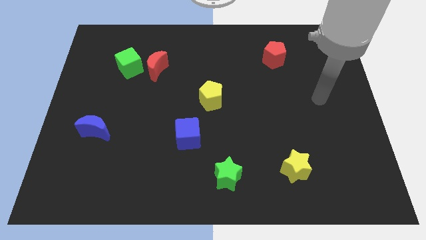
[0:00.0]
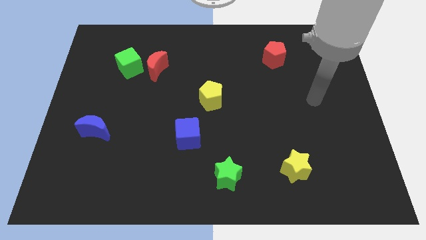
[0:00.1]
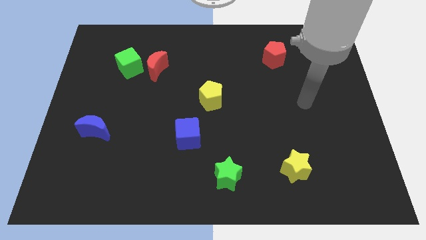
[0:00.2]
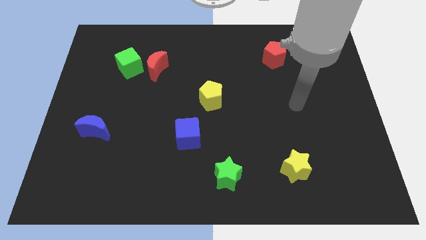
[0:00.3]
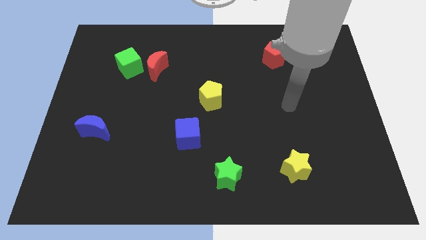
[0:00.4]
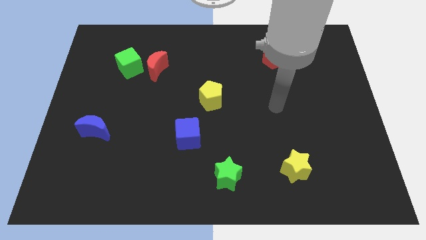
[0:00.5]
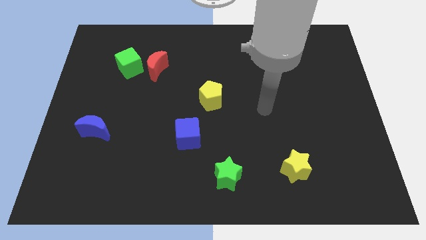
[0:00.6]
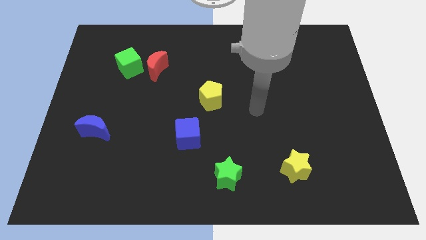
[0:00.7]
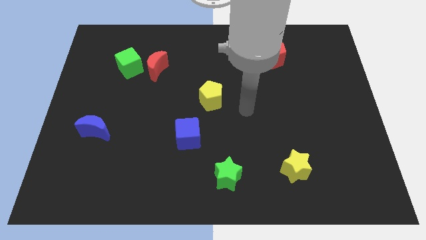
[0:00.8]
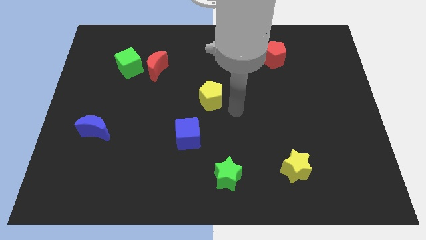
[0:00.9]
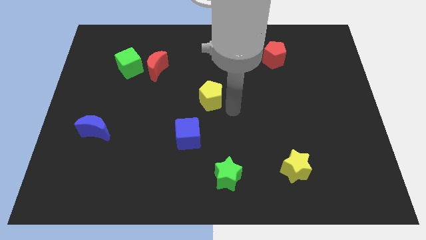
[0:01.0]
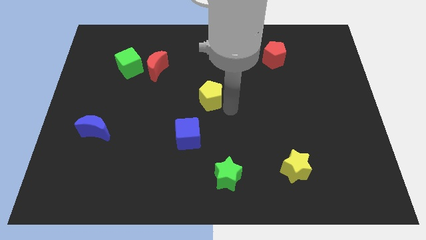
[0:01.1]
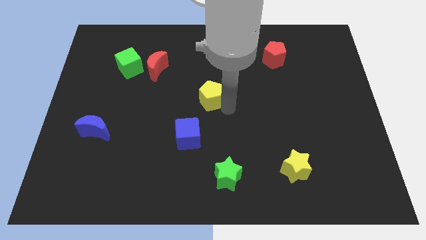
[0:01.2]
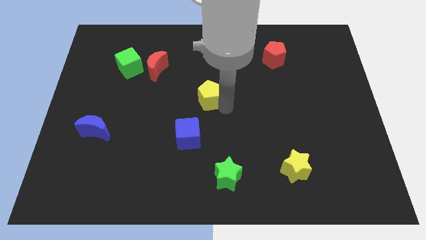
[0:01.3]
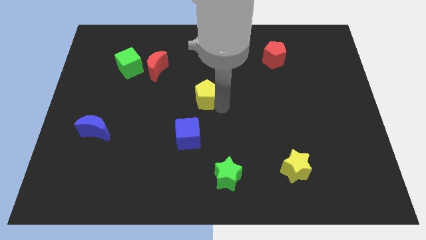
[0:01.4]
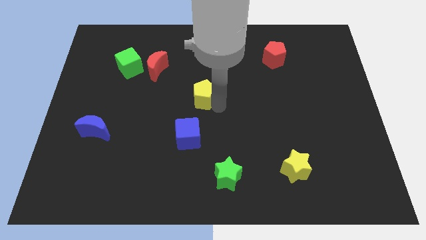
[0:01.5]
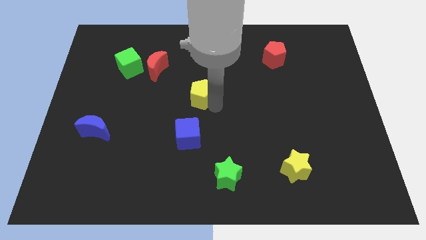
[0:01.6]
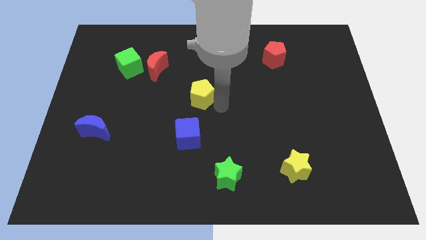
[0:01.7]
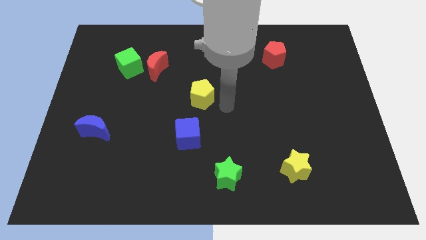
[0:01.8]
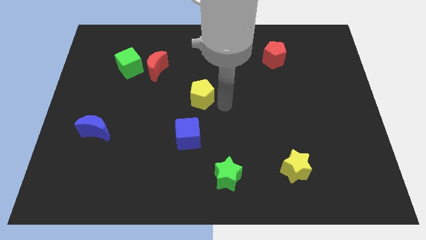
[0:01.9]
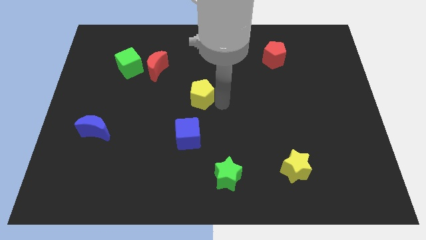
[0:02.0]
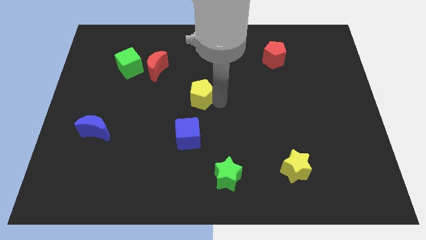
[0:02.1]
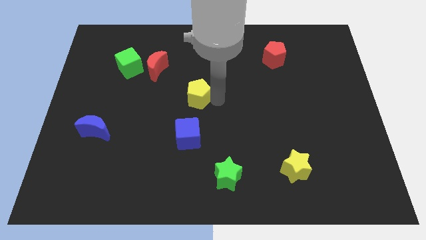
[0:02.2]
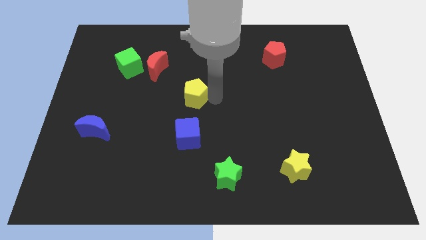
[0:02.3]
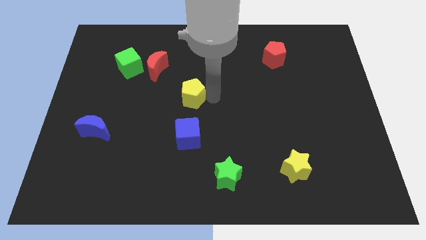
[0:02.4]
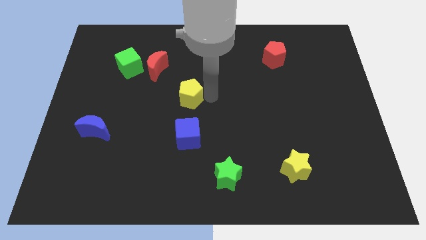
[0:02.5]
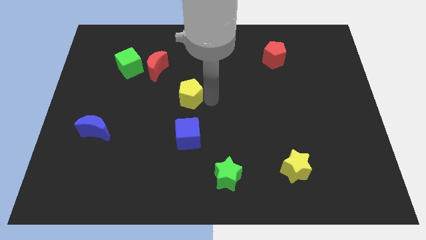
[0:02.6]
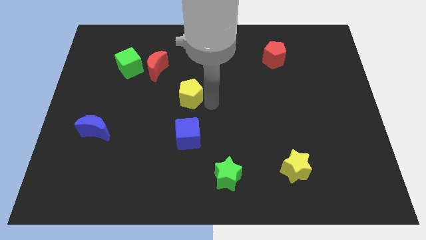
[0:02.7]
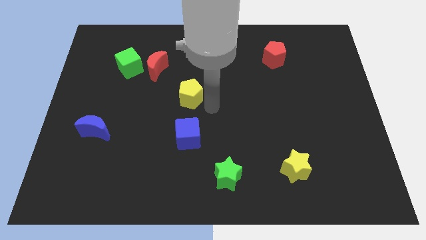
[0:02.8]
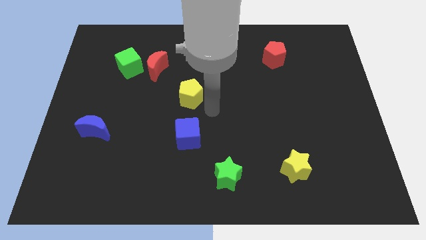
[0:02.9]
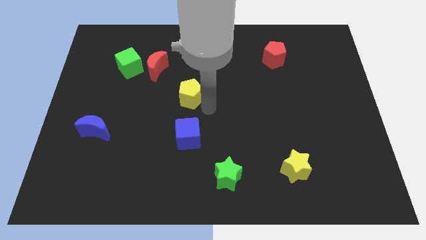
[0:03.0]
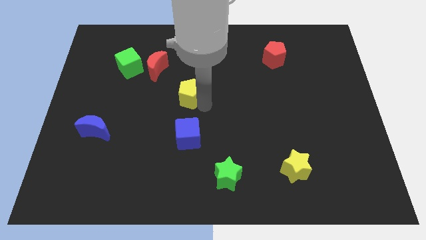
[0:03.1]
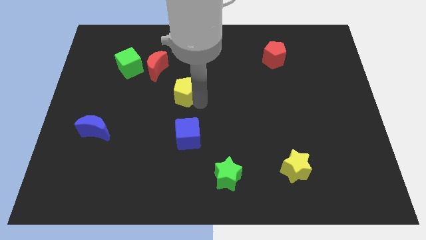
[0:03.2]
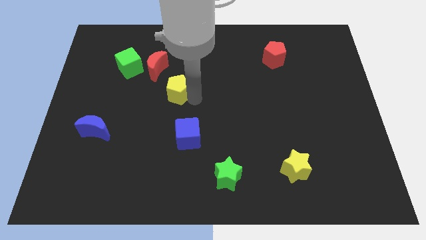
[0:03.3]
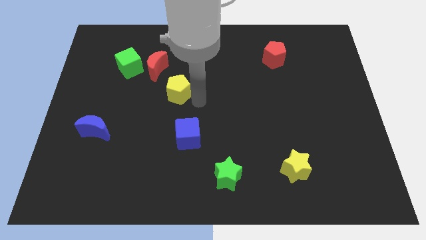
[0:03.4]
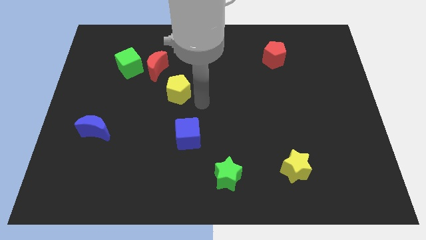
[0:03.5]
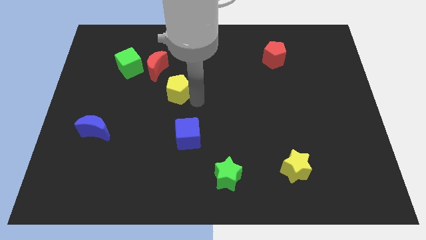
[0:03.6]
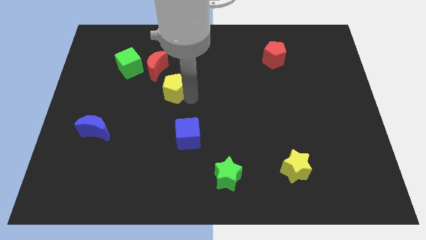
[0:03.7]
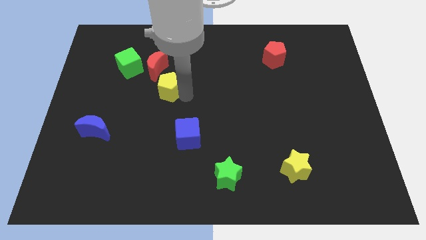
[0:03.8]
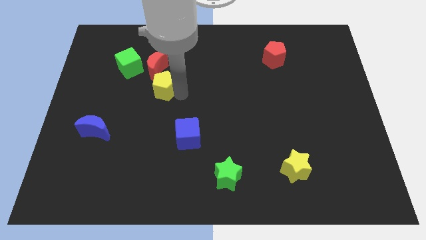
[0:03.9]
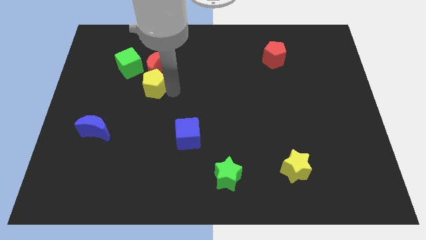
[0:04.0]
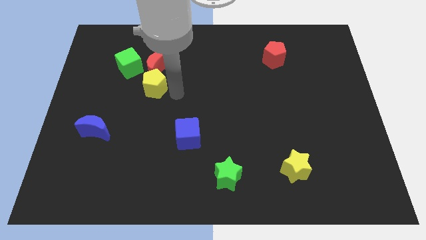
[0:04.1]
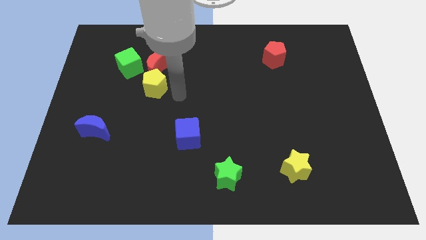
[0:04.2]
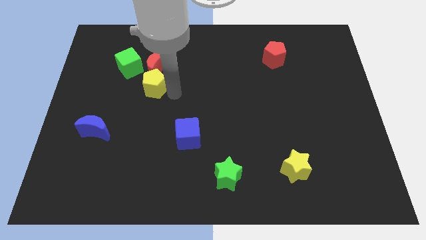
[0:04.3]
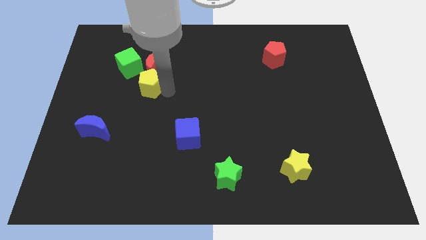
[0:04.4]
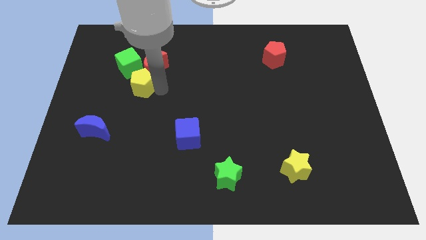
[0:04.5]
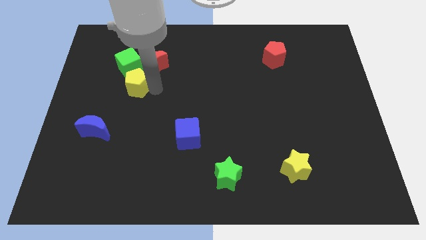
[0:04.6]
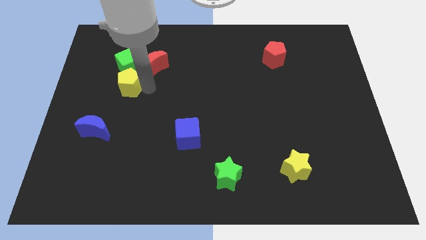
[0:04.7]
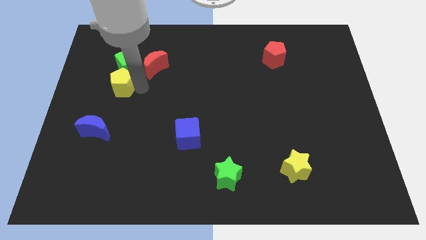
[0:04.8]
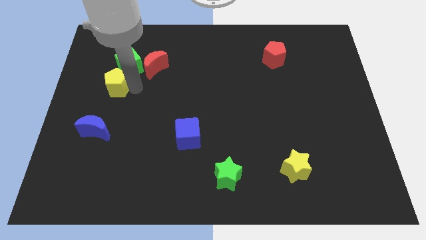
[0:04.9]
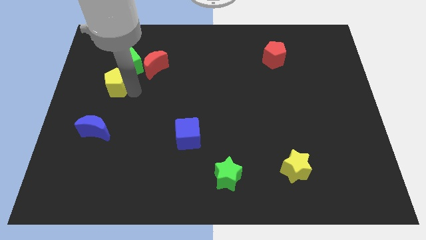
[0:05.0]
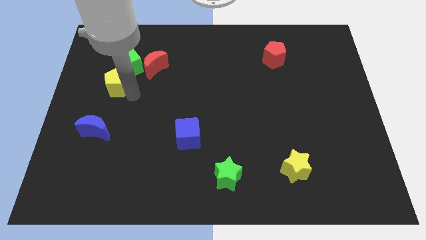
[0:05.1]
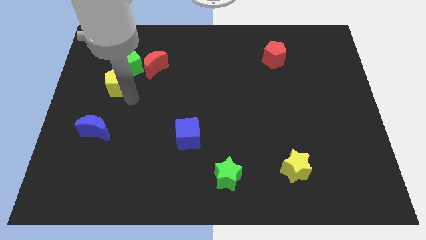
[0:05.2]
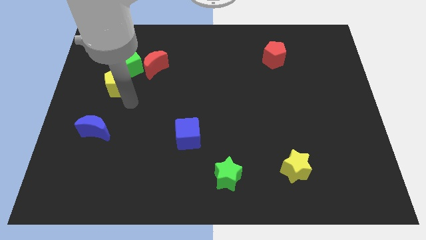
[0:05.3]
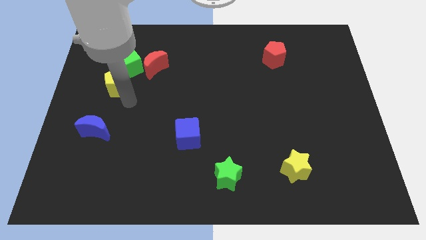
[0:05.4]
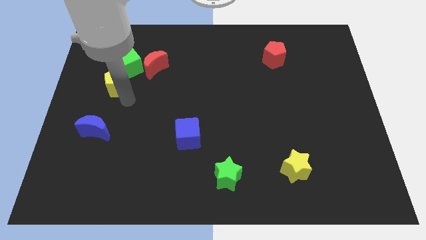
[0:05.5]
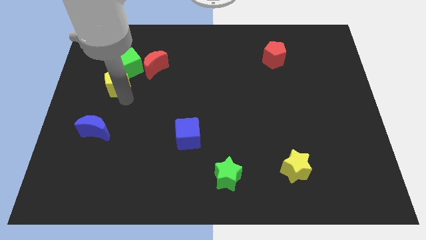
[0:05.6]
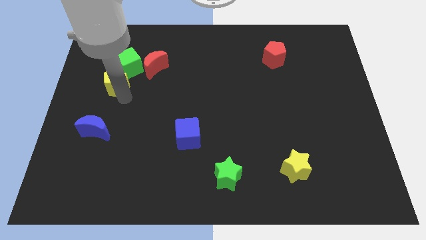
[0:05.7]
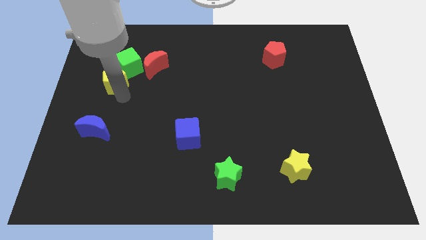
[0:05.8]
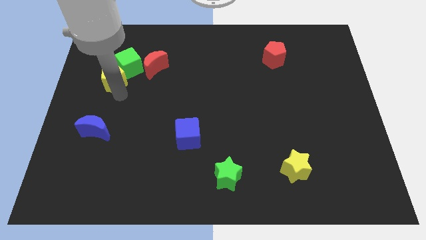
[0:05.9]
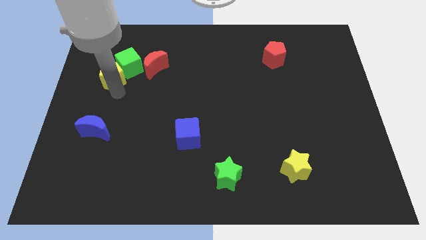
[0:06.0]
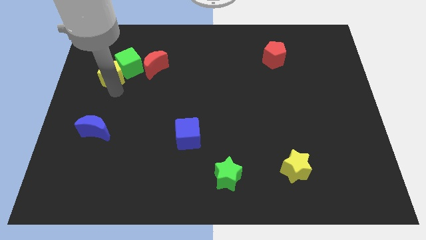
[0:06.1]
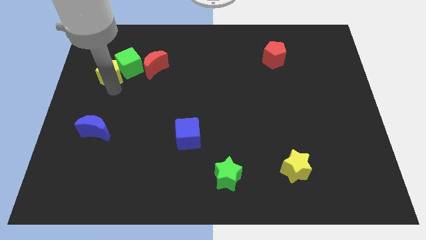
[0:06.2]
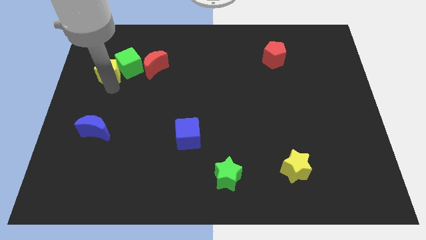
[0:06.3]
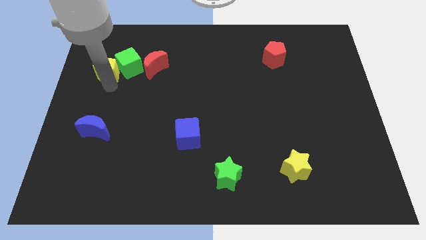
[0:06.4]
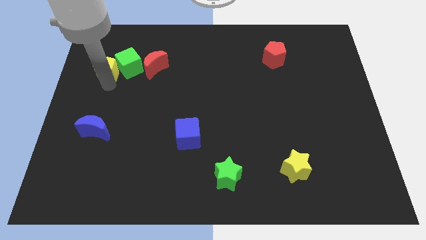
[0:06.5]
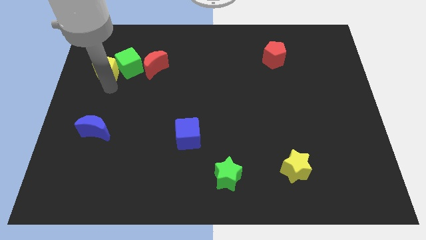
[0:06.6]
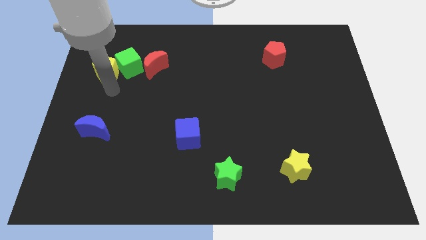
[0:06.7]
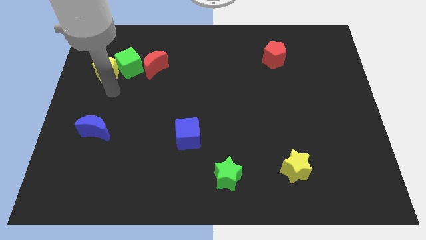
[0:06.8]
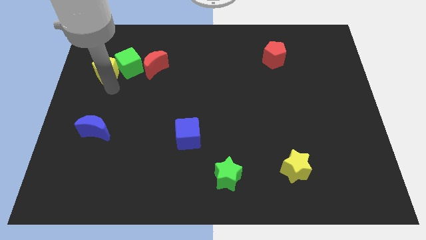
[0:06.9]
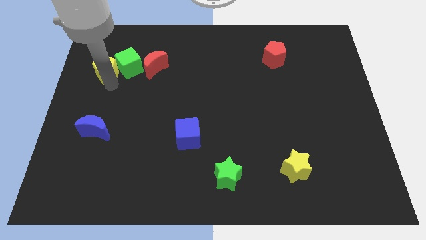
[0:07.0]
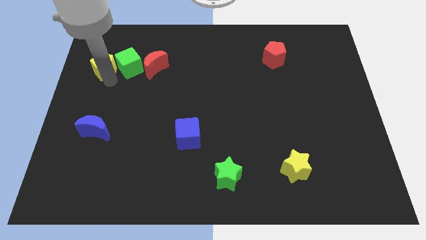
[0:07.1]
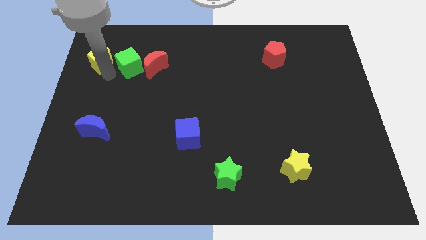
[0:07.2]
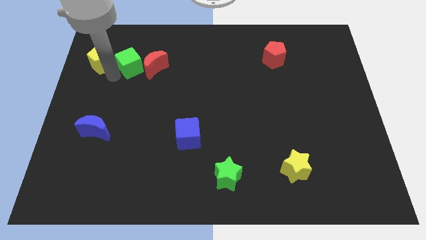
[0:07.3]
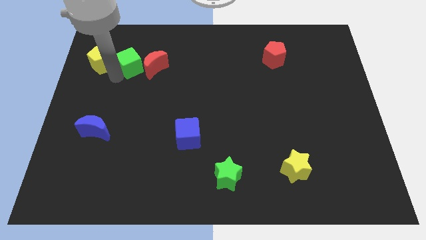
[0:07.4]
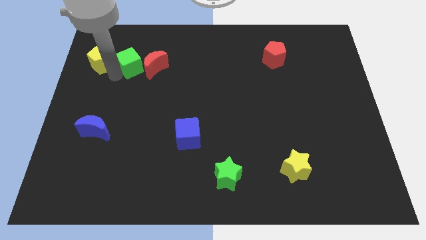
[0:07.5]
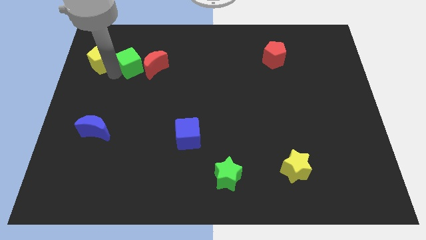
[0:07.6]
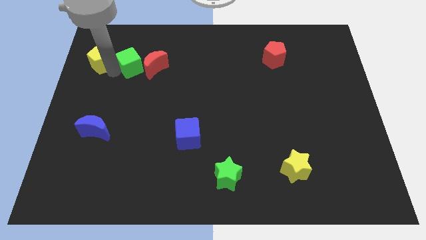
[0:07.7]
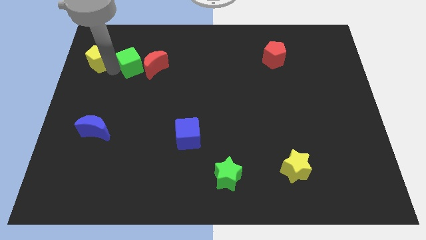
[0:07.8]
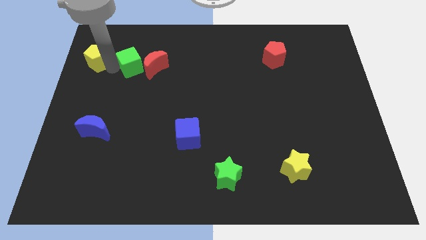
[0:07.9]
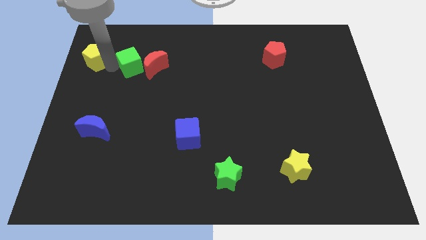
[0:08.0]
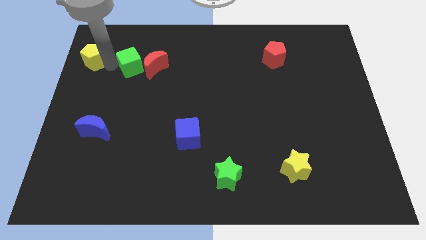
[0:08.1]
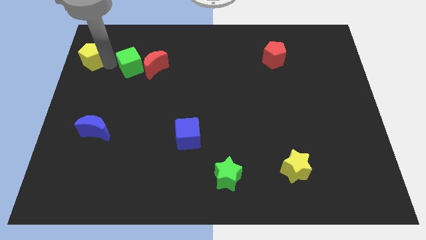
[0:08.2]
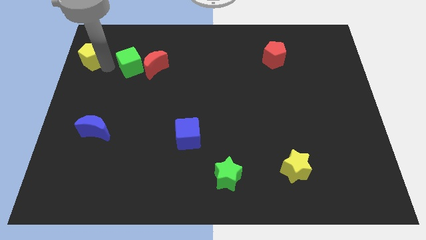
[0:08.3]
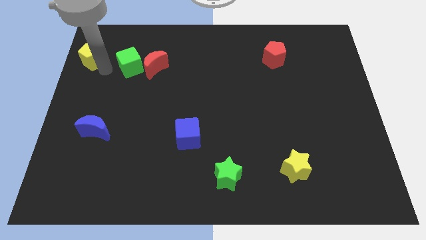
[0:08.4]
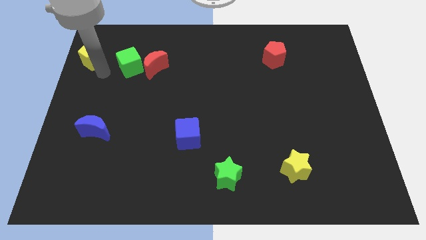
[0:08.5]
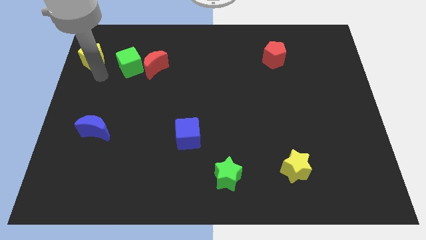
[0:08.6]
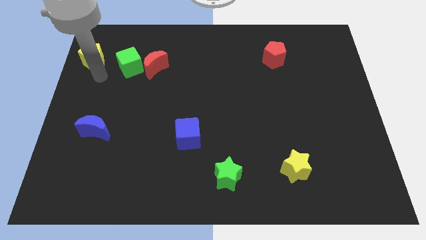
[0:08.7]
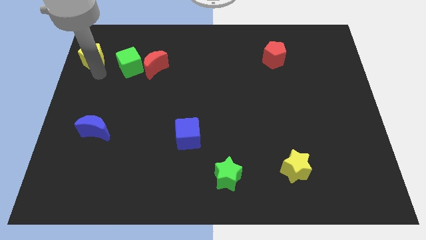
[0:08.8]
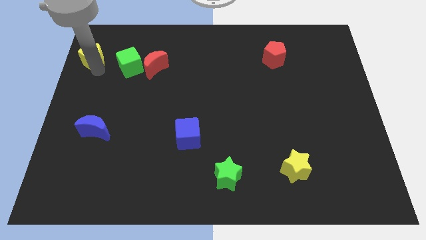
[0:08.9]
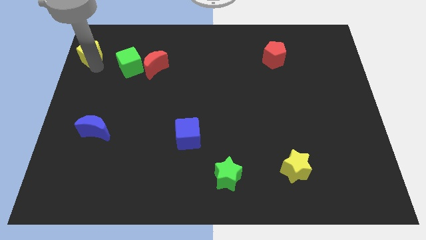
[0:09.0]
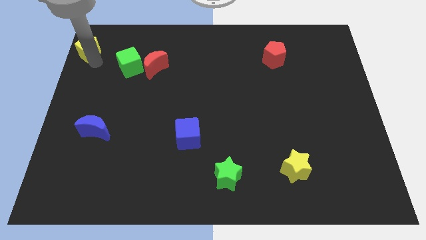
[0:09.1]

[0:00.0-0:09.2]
put the yellow pentagon to the upper left corner
